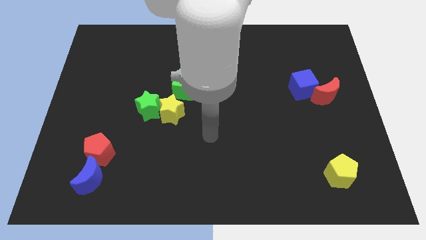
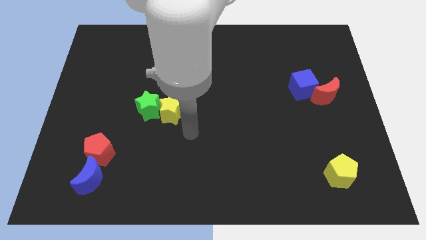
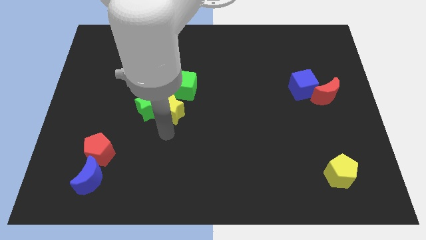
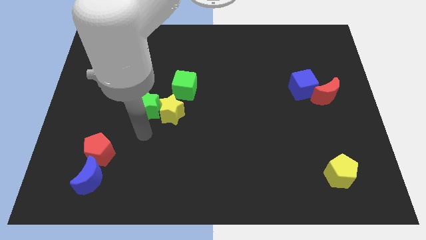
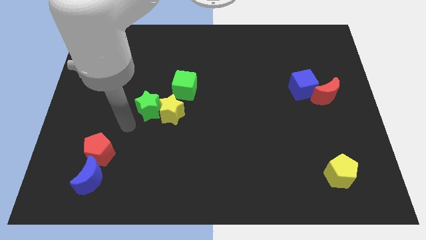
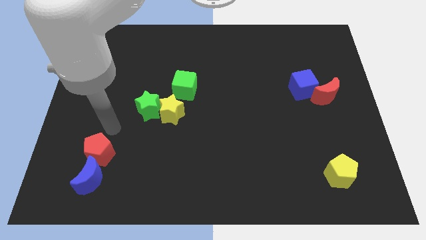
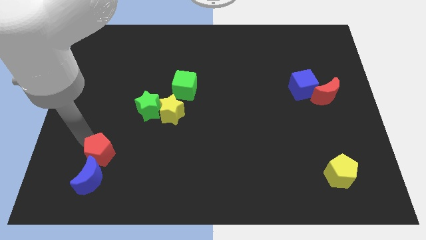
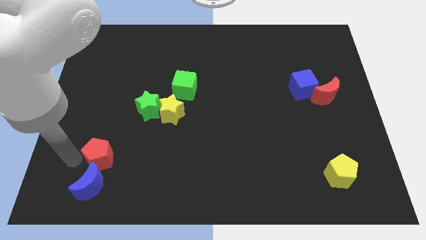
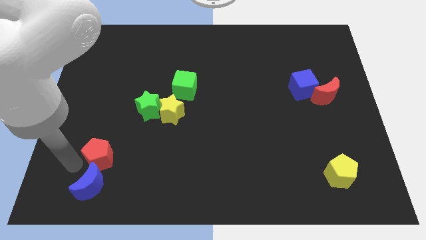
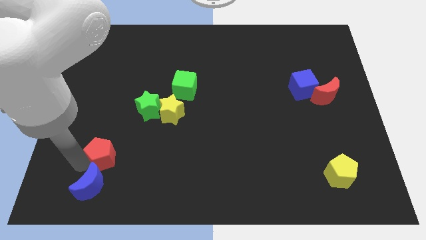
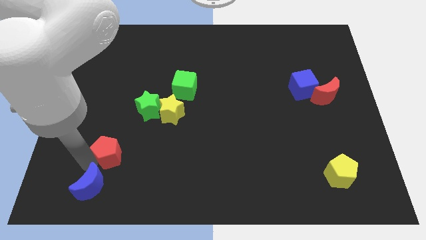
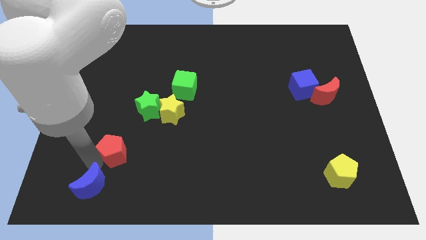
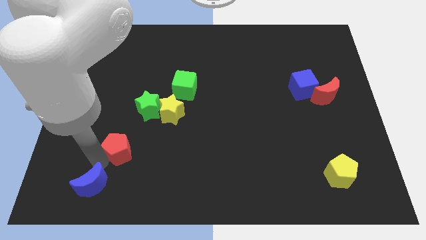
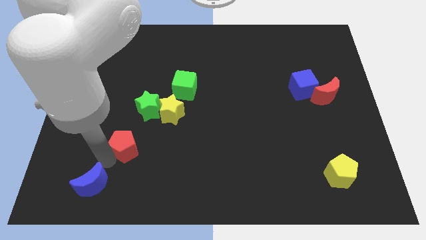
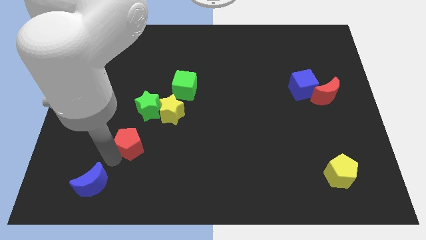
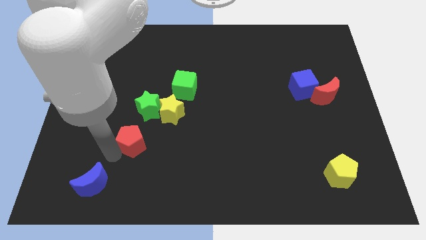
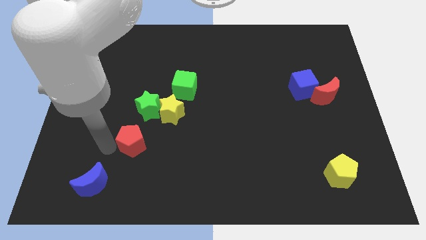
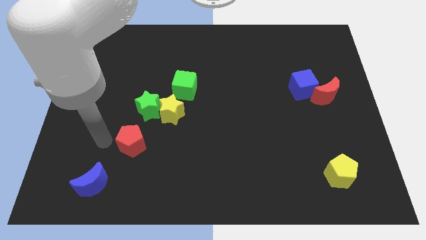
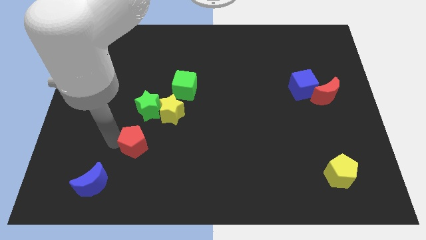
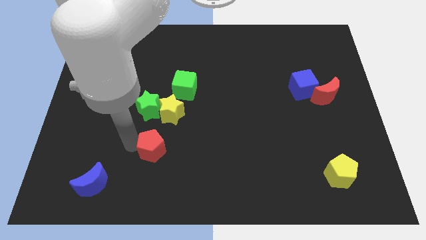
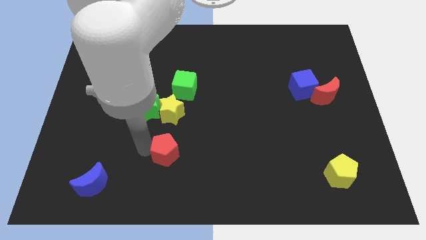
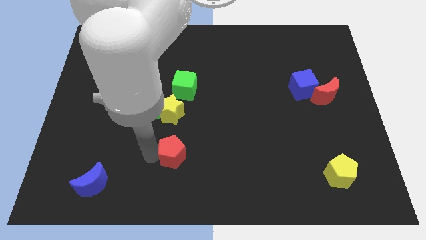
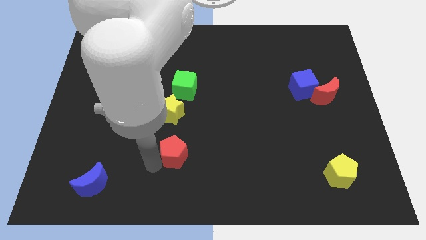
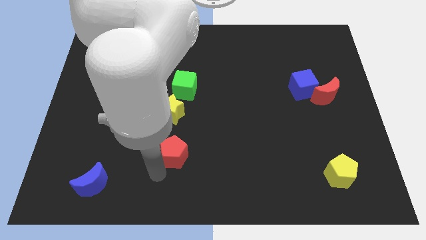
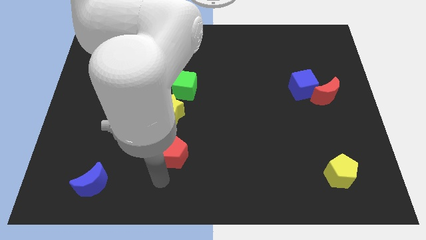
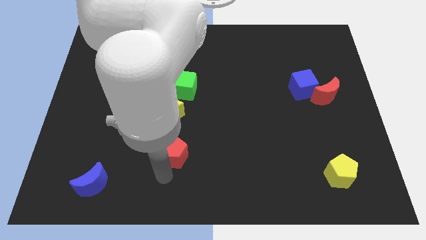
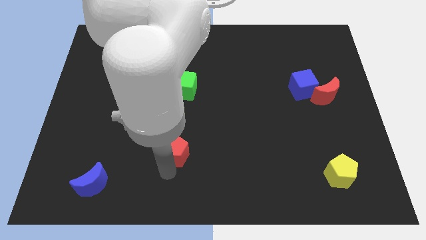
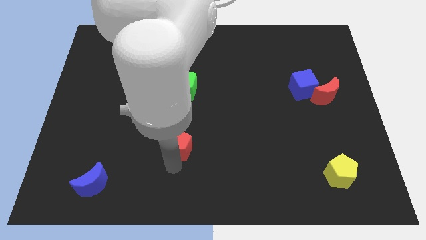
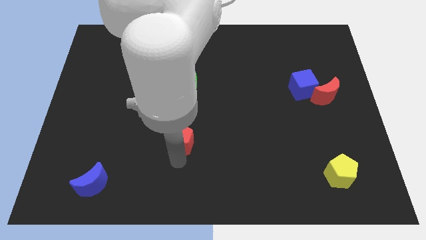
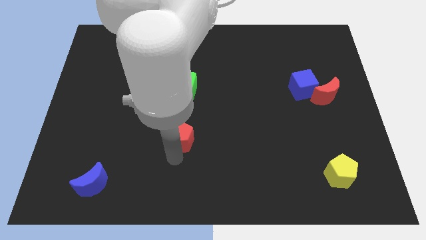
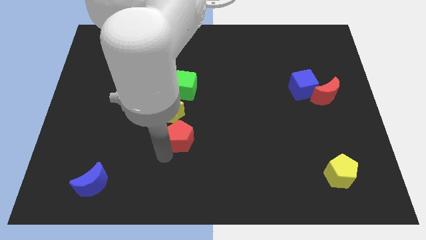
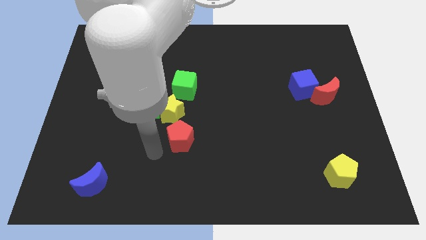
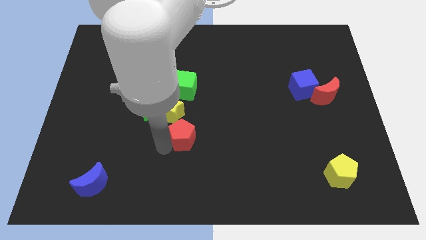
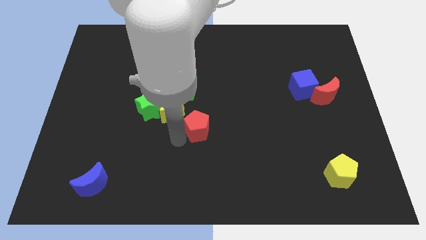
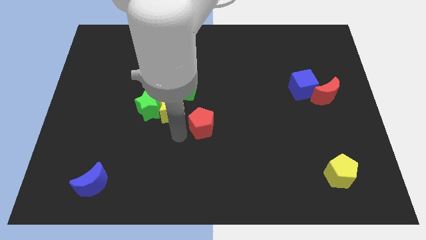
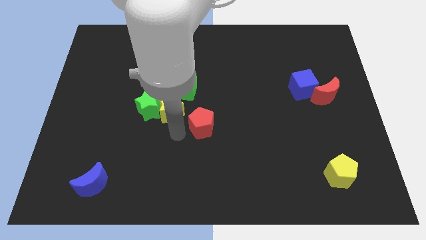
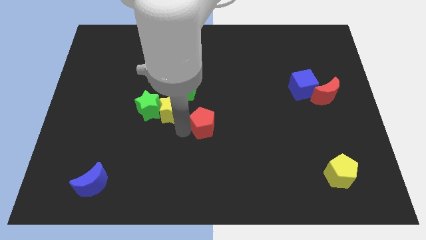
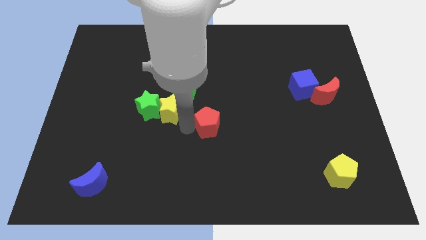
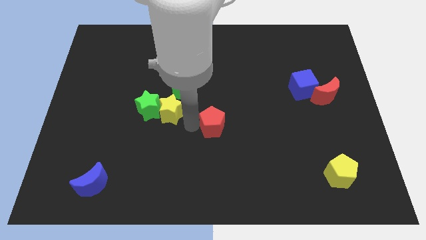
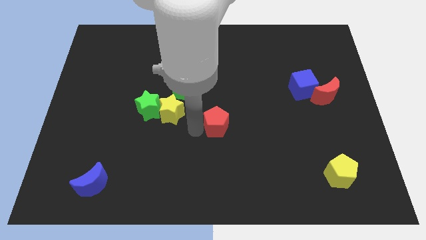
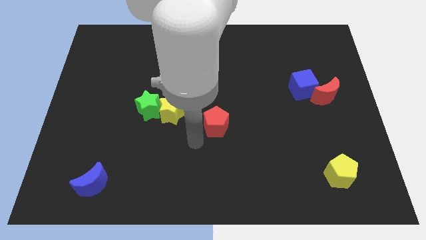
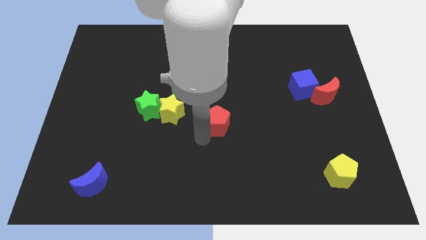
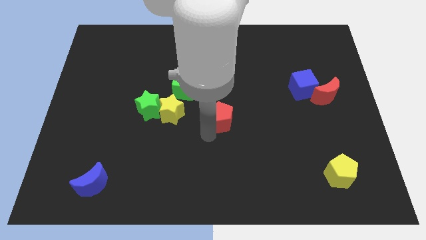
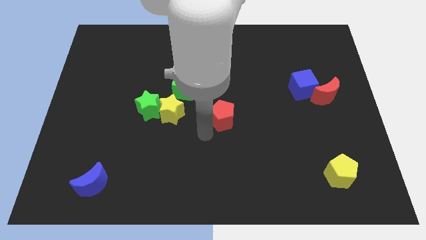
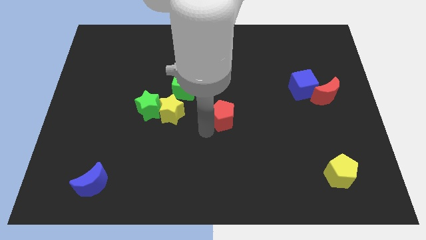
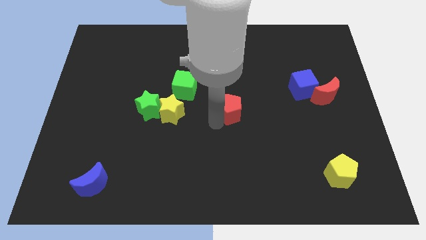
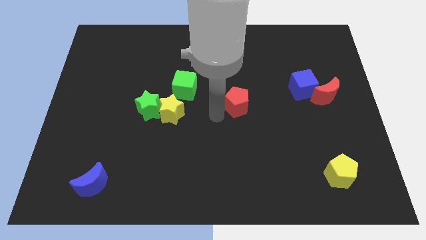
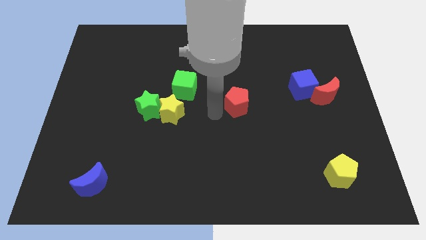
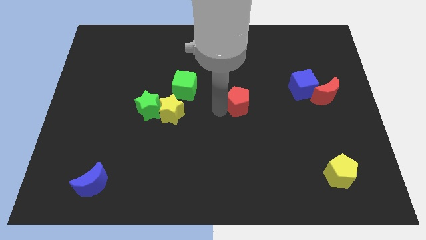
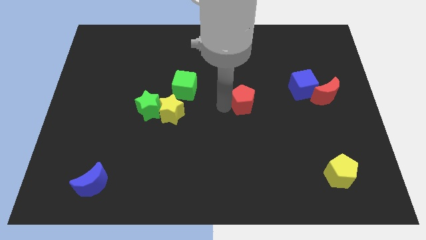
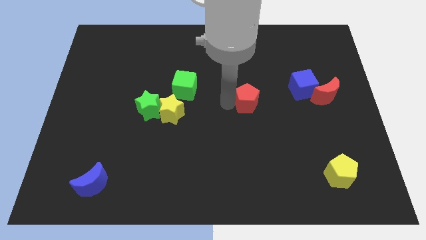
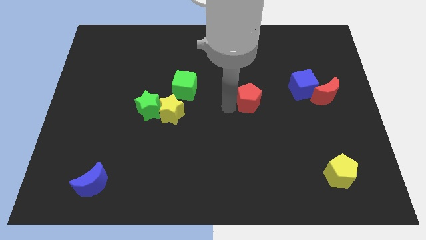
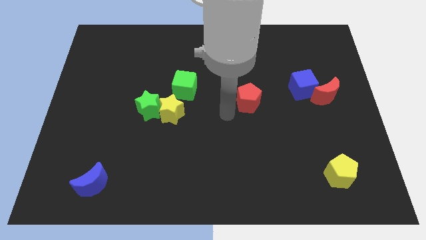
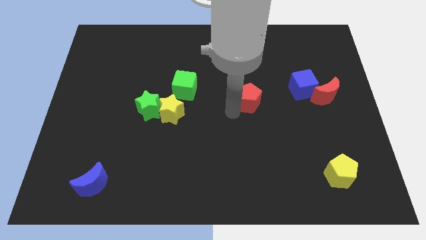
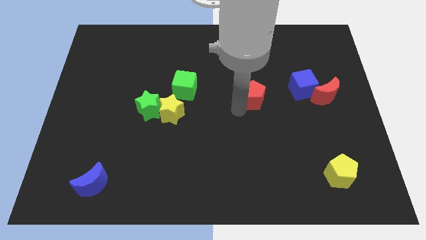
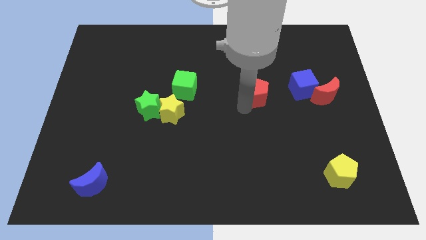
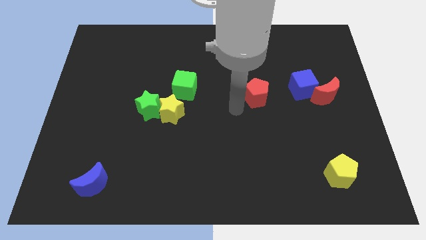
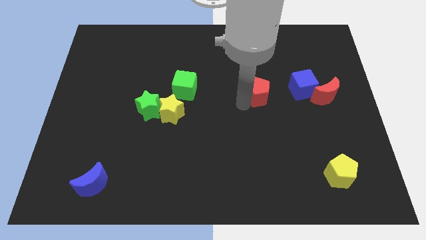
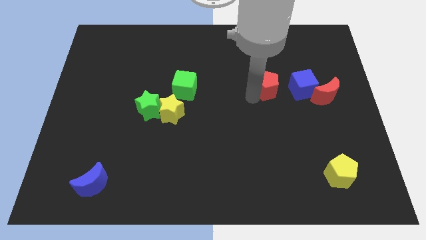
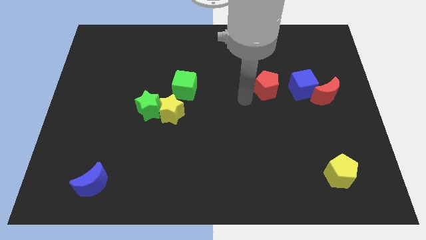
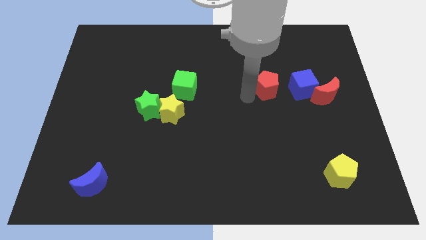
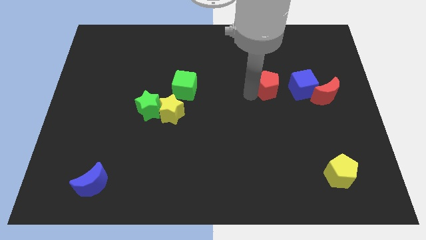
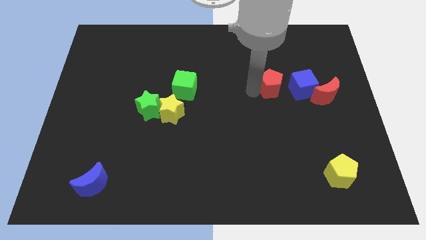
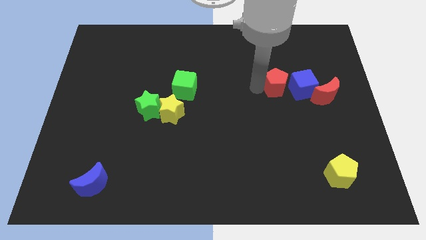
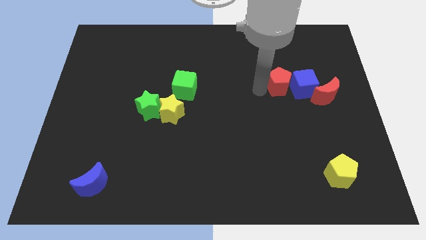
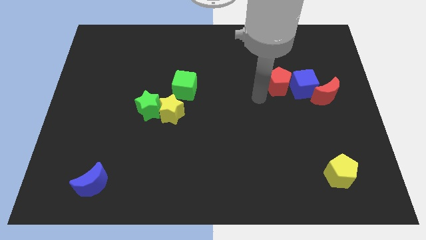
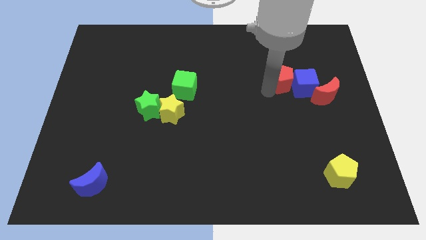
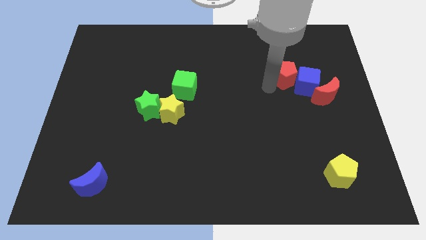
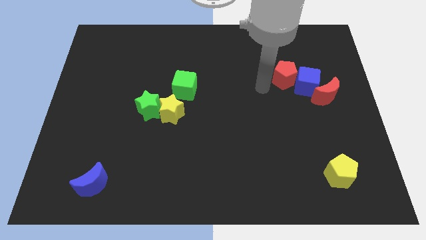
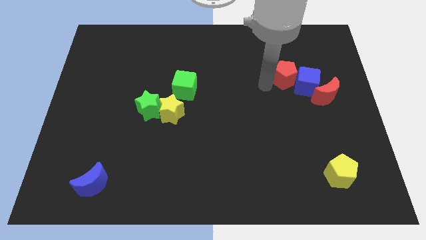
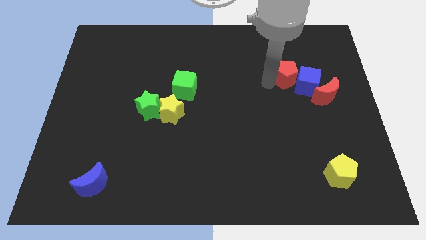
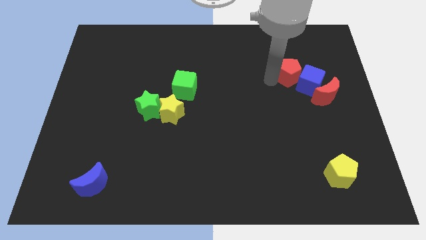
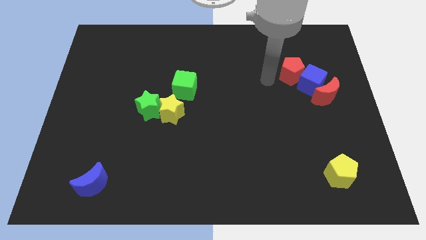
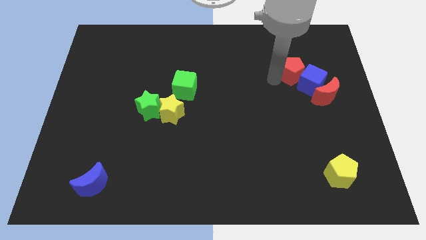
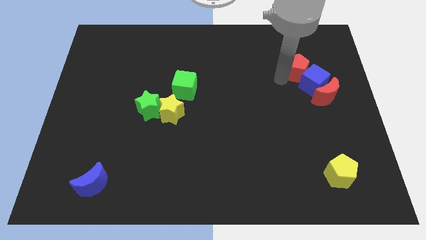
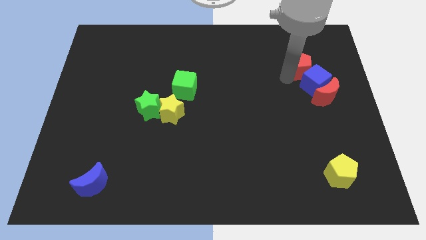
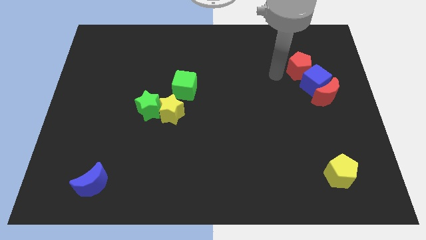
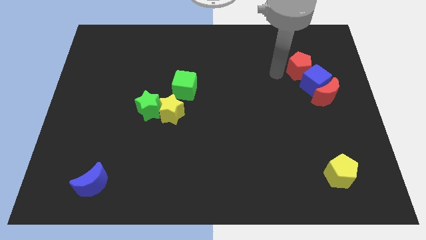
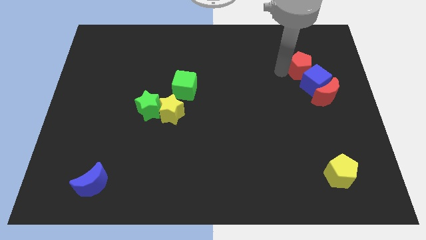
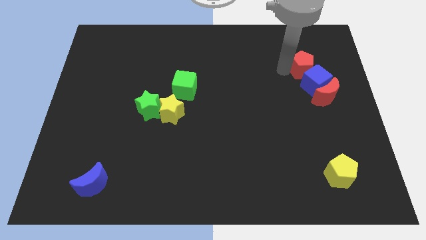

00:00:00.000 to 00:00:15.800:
move the red pentagon to the top side of the red moon
